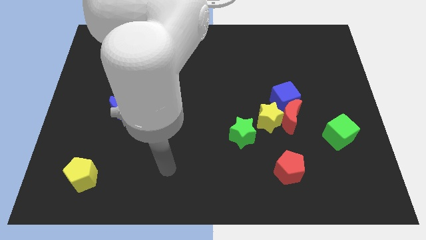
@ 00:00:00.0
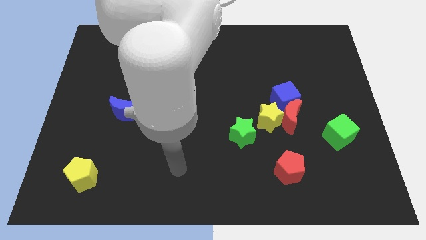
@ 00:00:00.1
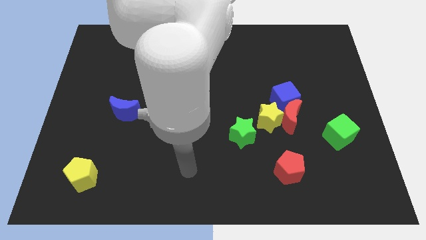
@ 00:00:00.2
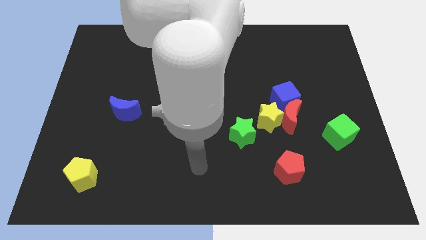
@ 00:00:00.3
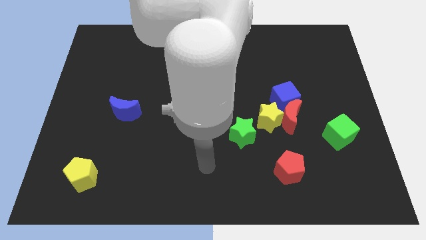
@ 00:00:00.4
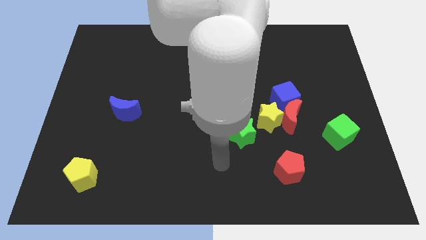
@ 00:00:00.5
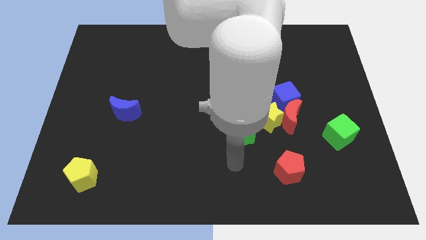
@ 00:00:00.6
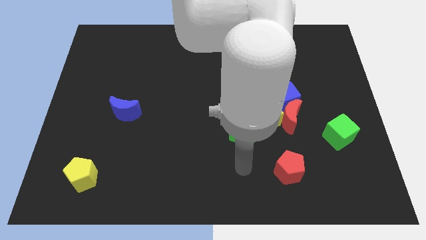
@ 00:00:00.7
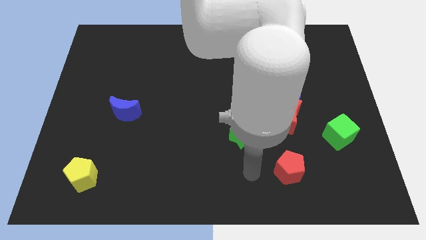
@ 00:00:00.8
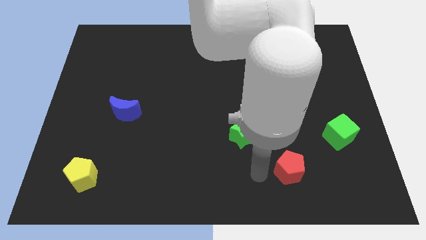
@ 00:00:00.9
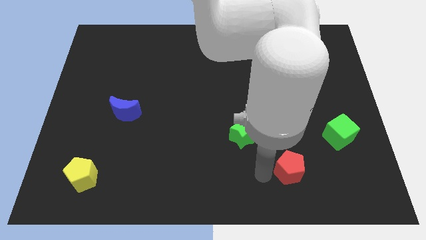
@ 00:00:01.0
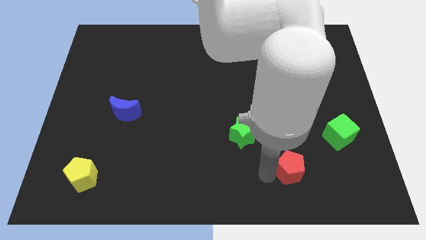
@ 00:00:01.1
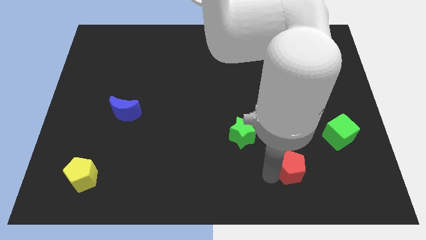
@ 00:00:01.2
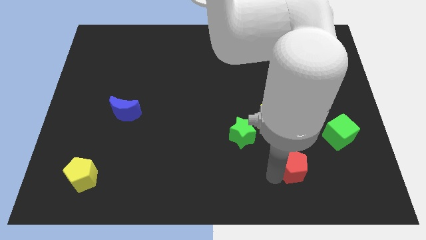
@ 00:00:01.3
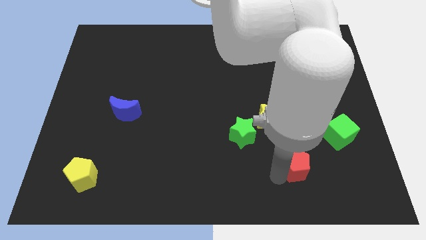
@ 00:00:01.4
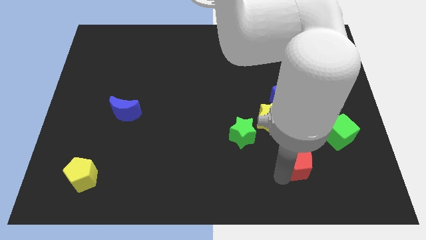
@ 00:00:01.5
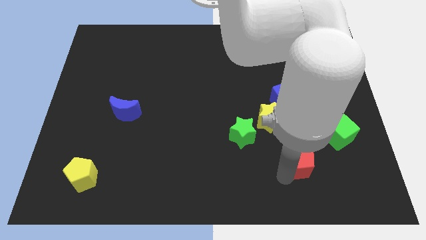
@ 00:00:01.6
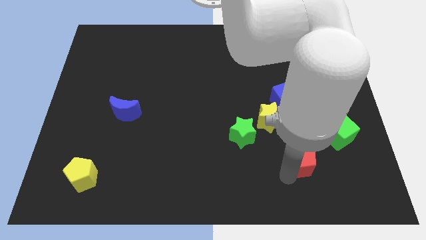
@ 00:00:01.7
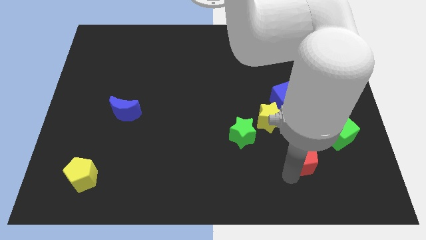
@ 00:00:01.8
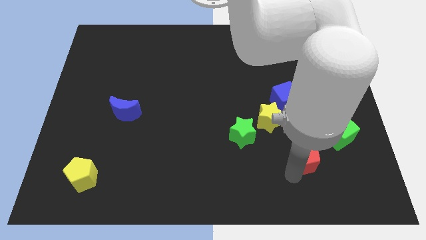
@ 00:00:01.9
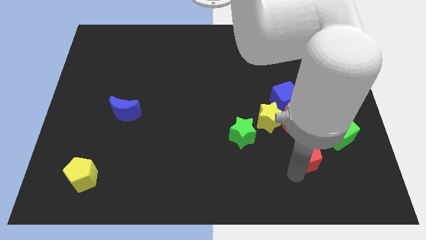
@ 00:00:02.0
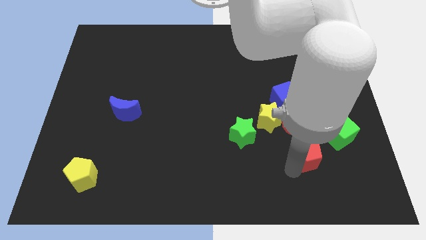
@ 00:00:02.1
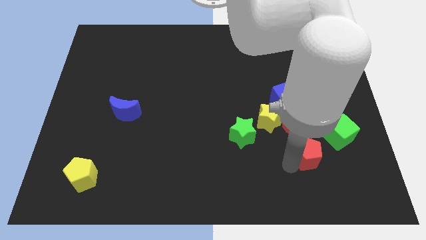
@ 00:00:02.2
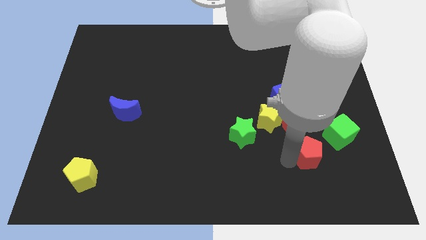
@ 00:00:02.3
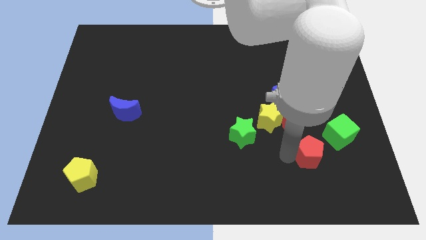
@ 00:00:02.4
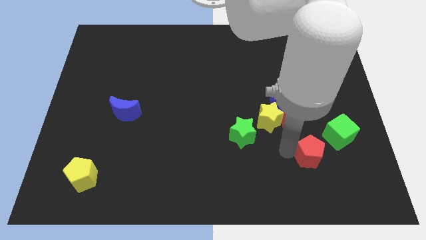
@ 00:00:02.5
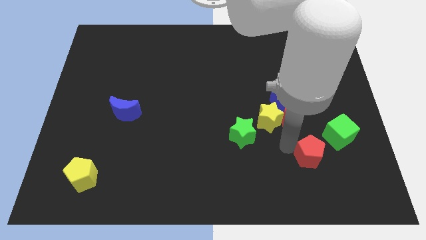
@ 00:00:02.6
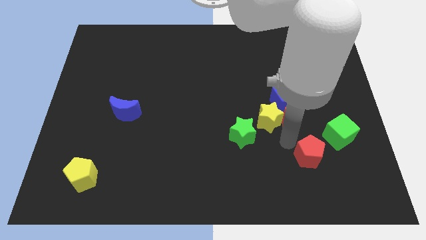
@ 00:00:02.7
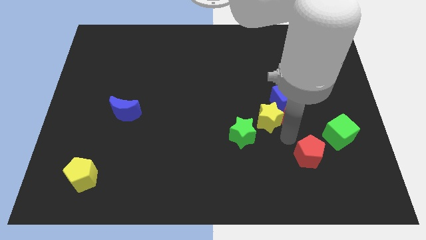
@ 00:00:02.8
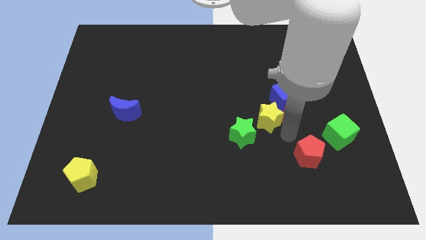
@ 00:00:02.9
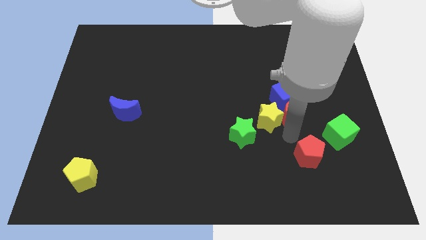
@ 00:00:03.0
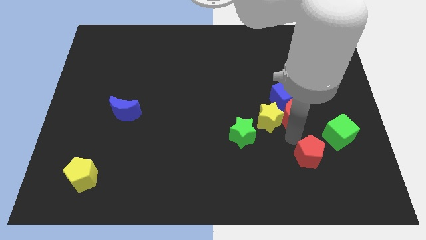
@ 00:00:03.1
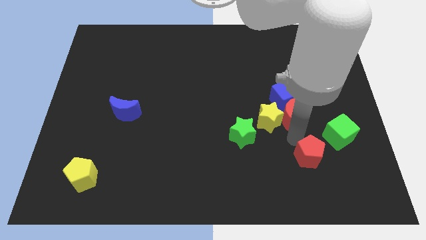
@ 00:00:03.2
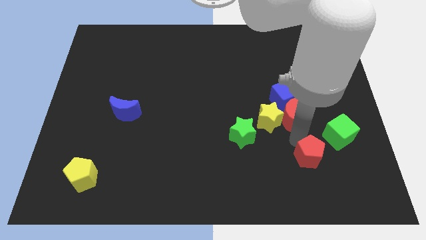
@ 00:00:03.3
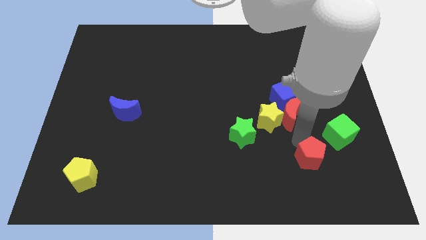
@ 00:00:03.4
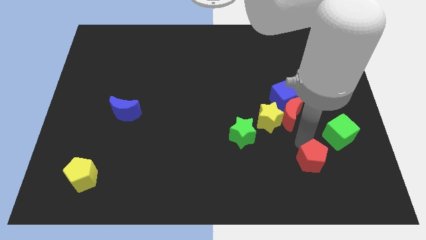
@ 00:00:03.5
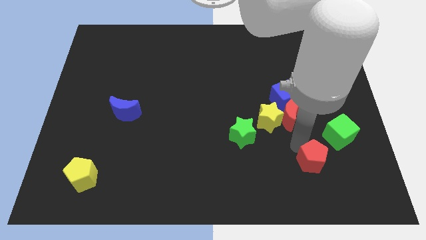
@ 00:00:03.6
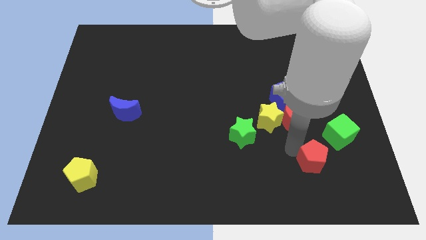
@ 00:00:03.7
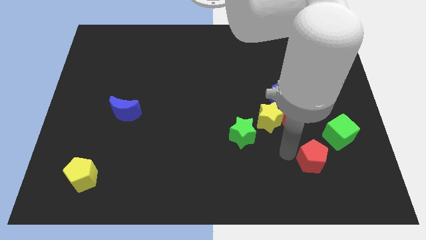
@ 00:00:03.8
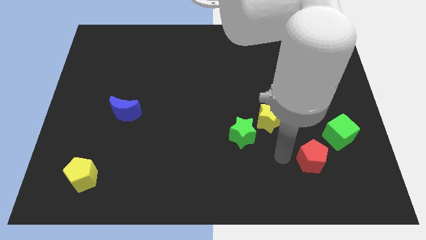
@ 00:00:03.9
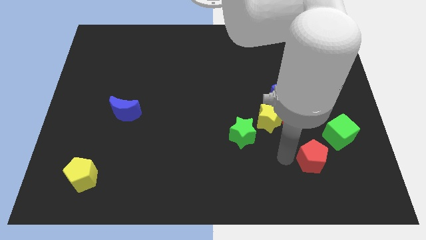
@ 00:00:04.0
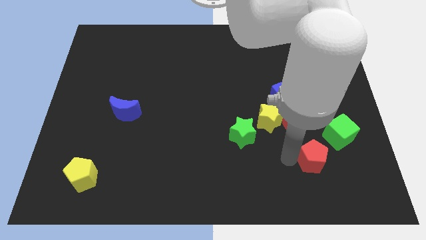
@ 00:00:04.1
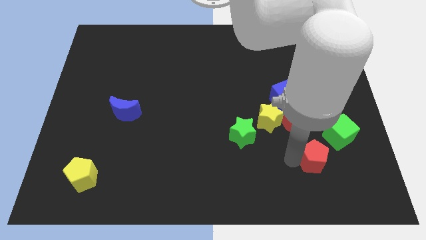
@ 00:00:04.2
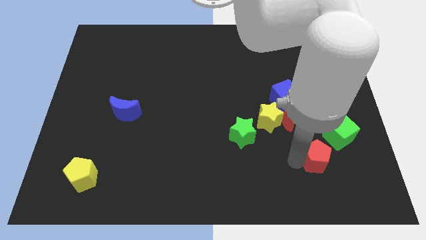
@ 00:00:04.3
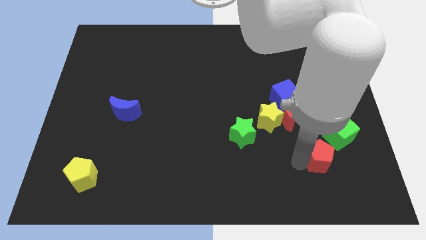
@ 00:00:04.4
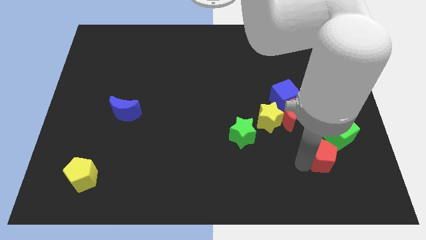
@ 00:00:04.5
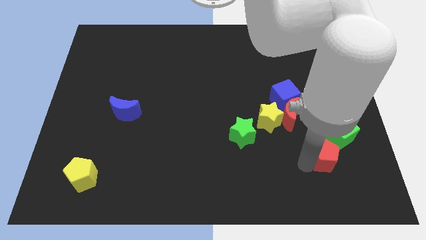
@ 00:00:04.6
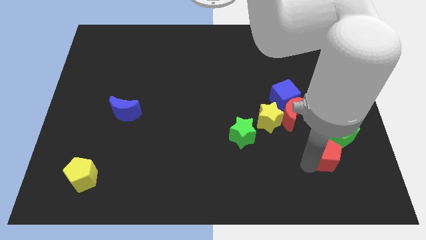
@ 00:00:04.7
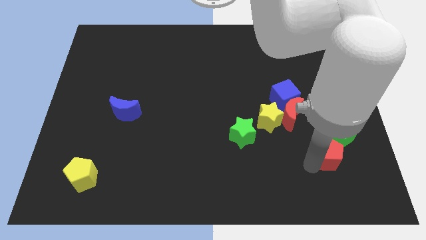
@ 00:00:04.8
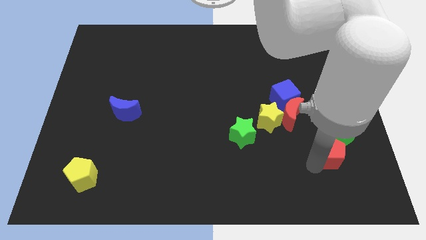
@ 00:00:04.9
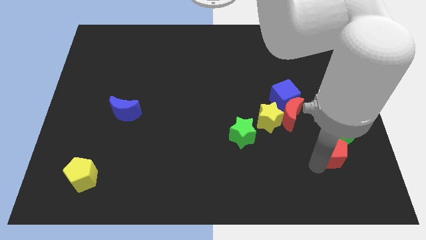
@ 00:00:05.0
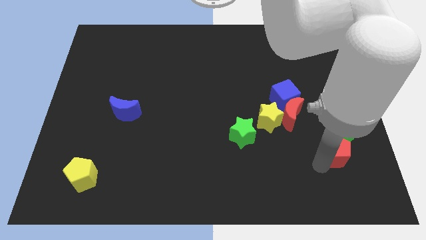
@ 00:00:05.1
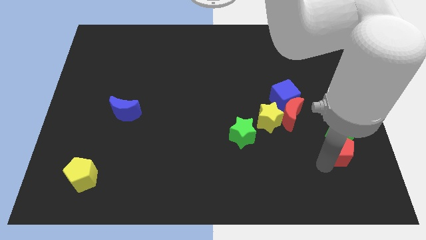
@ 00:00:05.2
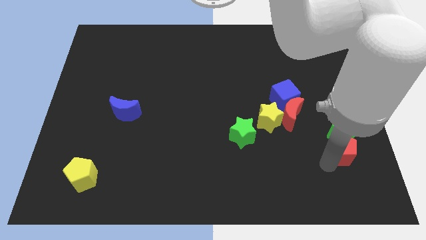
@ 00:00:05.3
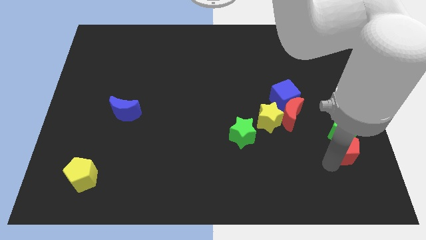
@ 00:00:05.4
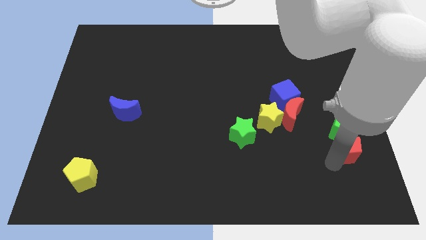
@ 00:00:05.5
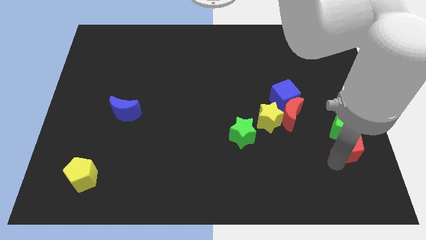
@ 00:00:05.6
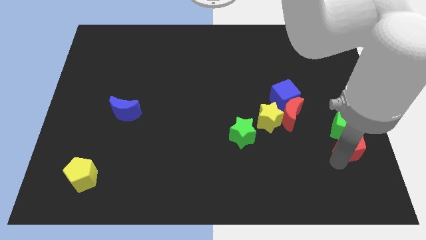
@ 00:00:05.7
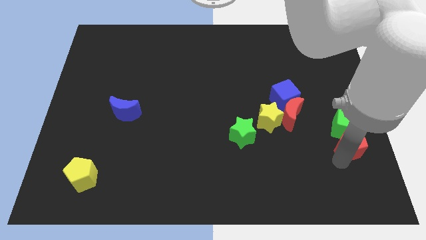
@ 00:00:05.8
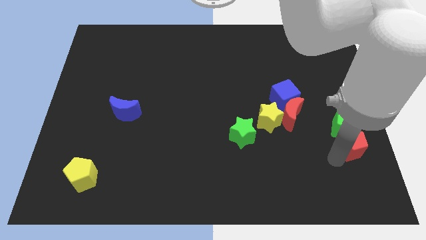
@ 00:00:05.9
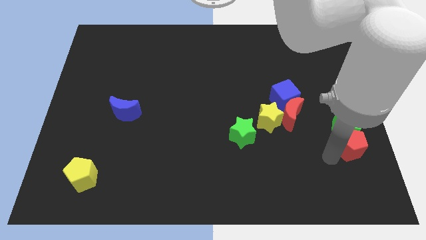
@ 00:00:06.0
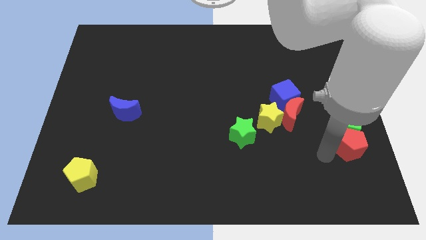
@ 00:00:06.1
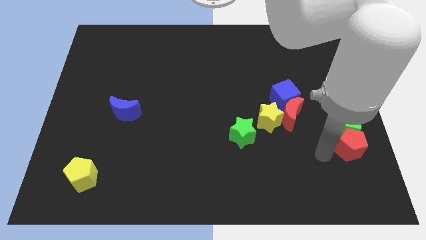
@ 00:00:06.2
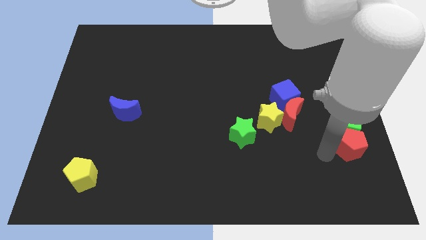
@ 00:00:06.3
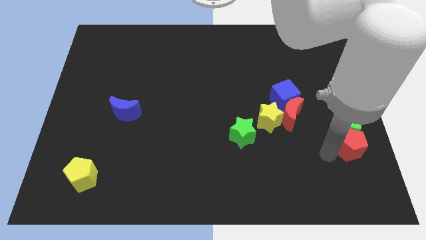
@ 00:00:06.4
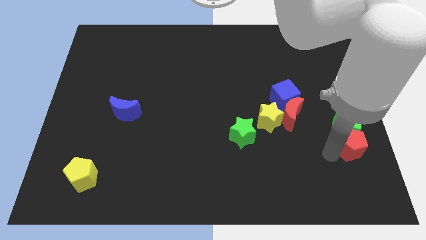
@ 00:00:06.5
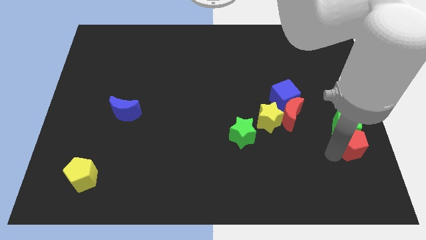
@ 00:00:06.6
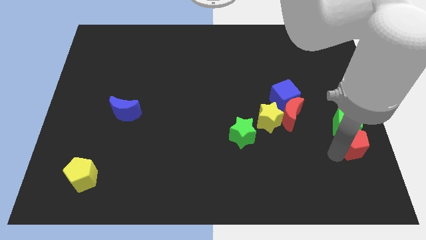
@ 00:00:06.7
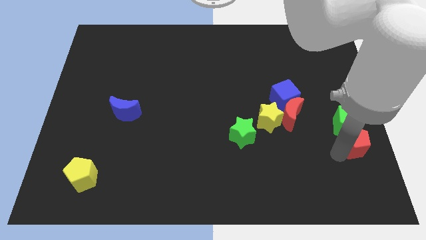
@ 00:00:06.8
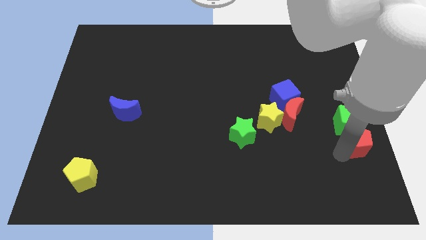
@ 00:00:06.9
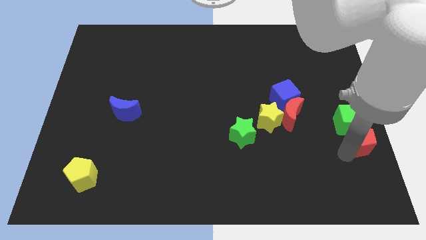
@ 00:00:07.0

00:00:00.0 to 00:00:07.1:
move the red pentagon to the right side
